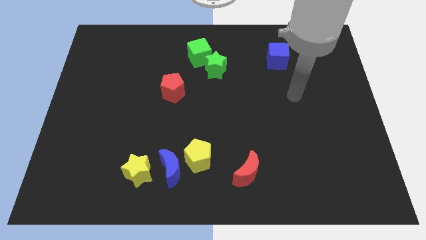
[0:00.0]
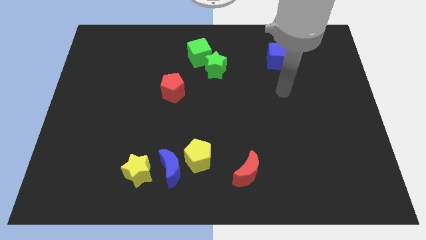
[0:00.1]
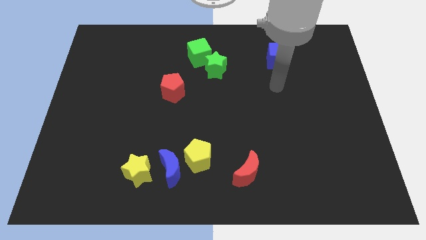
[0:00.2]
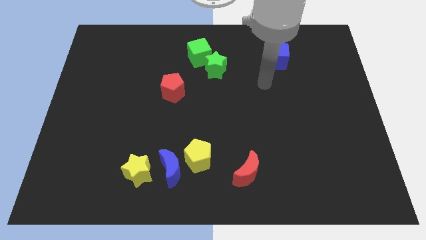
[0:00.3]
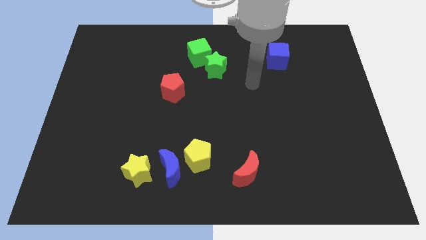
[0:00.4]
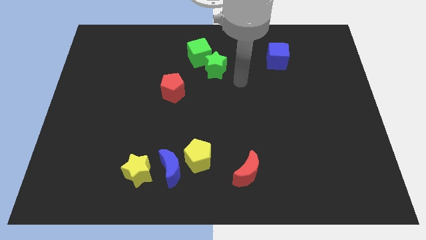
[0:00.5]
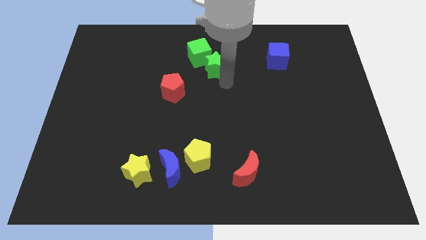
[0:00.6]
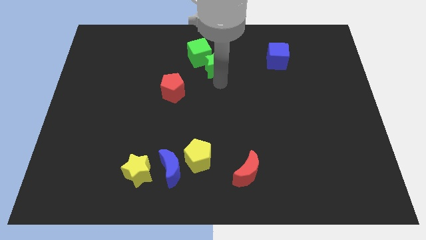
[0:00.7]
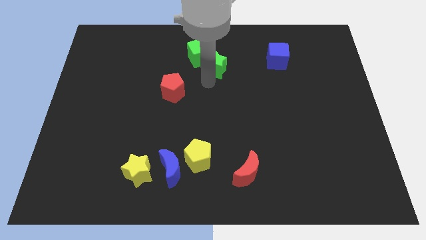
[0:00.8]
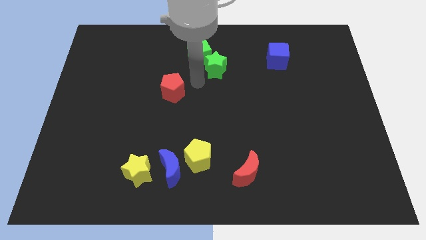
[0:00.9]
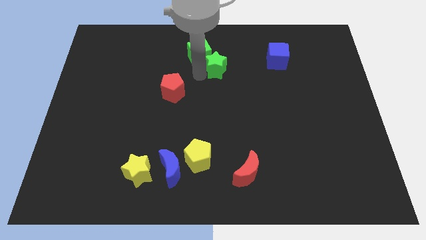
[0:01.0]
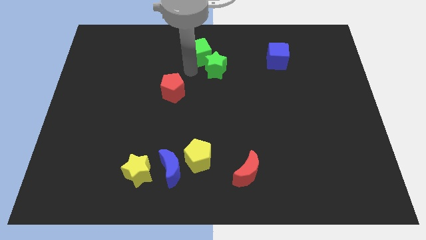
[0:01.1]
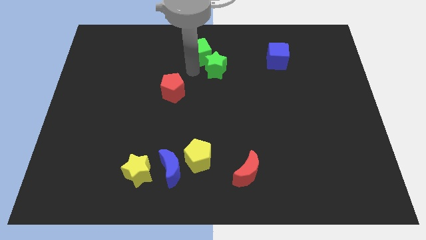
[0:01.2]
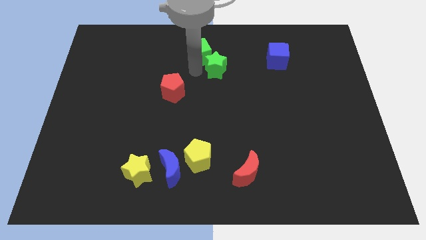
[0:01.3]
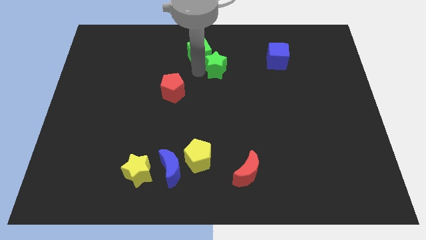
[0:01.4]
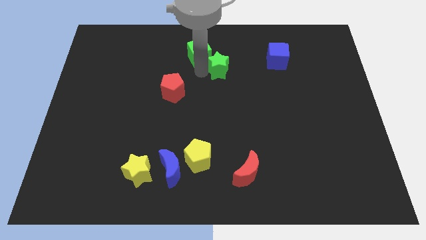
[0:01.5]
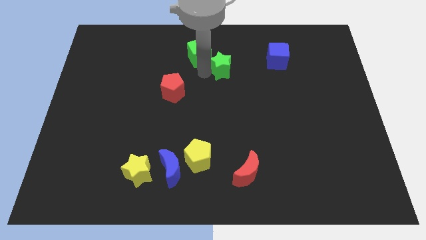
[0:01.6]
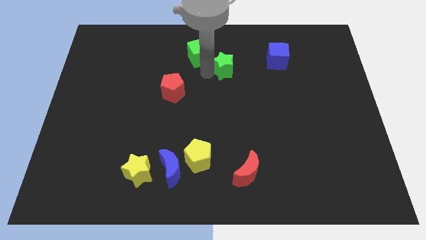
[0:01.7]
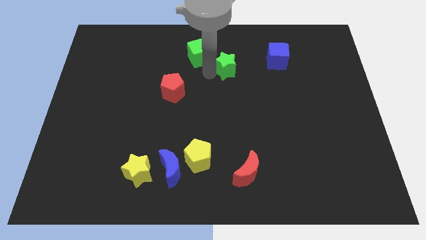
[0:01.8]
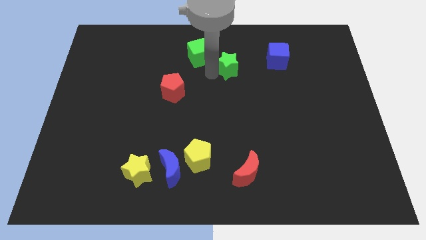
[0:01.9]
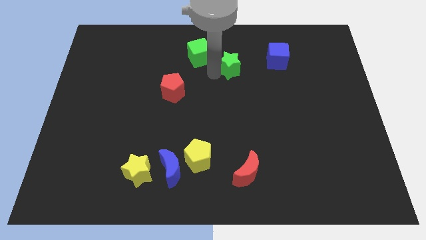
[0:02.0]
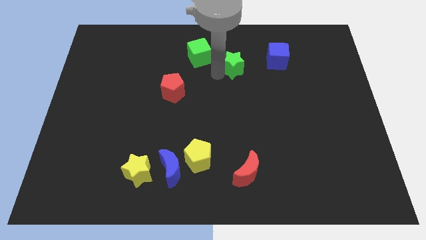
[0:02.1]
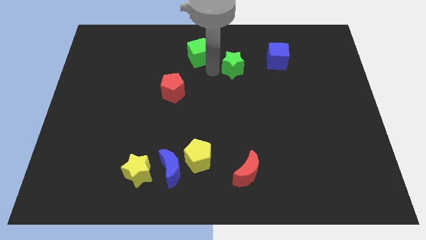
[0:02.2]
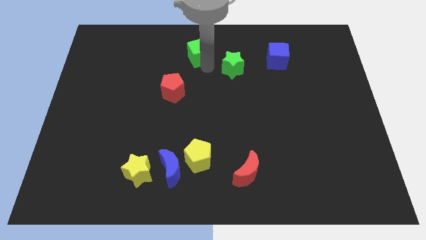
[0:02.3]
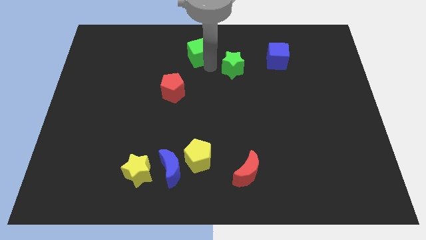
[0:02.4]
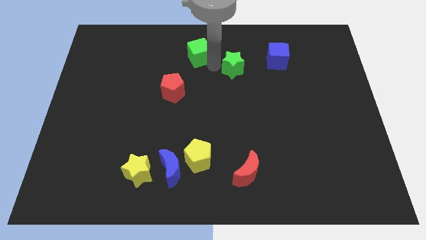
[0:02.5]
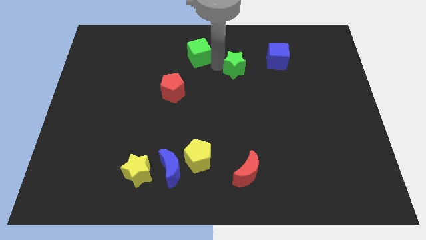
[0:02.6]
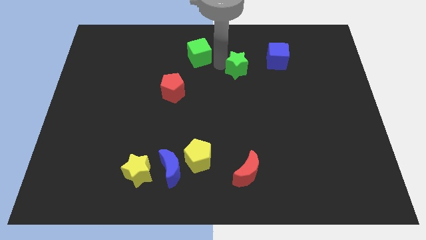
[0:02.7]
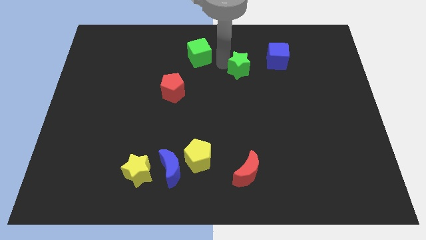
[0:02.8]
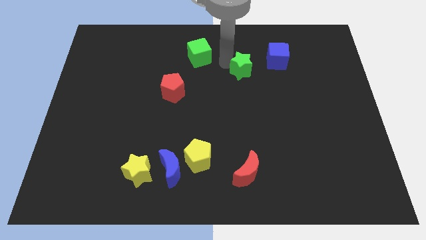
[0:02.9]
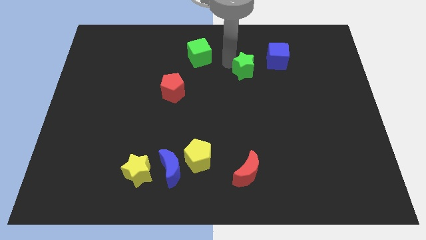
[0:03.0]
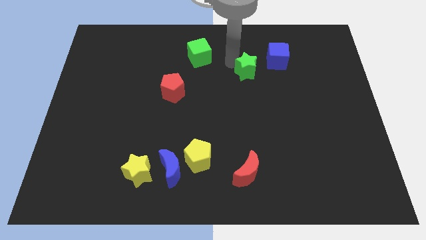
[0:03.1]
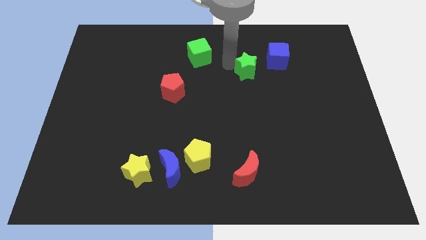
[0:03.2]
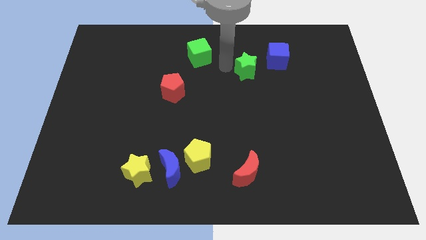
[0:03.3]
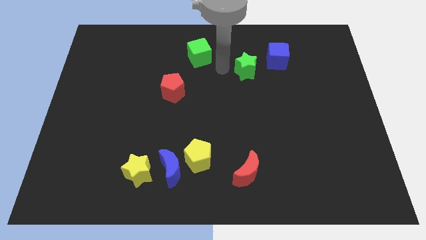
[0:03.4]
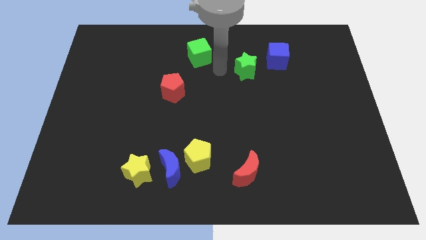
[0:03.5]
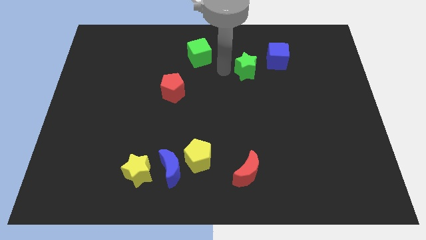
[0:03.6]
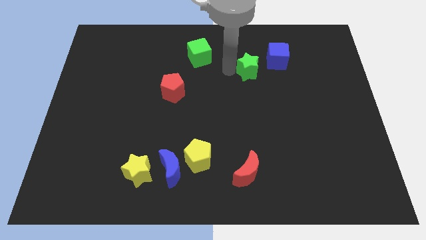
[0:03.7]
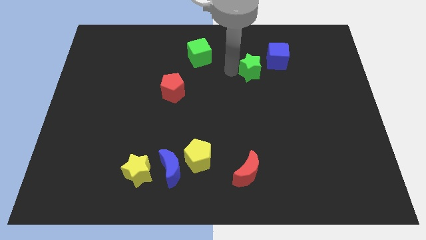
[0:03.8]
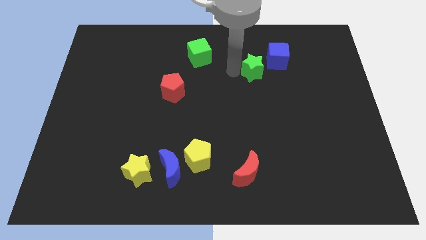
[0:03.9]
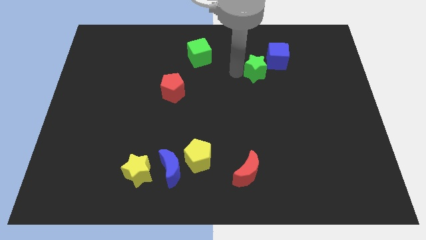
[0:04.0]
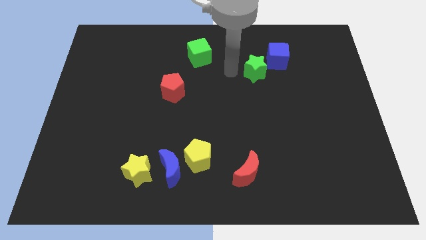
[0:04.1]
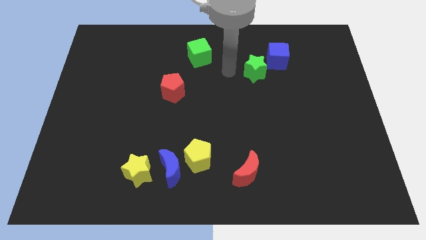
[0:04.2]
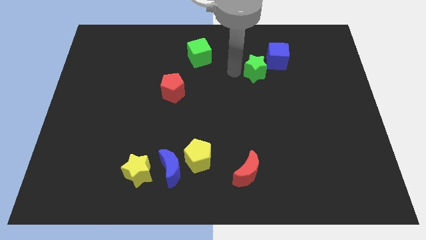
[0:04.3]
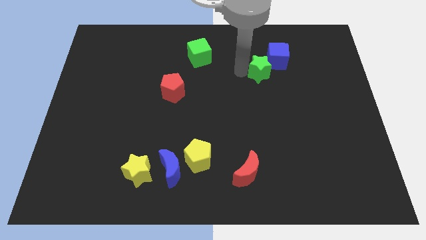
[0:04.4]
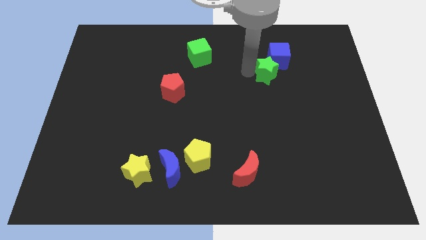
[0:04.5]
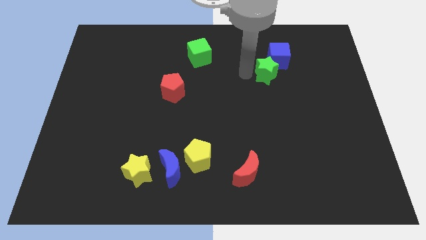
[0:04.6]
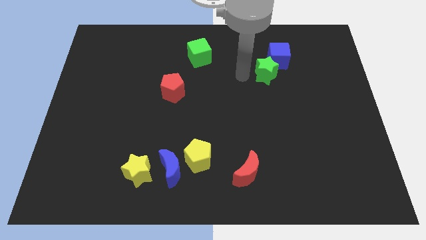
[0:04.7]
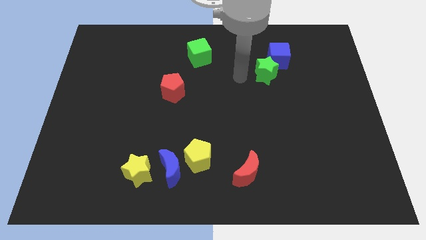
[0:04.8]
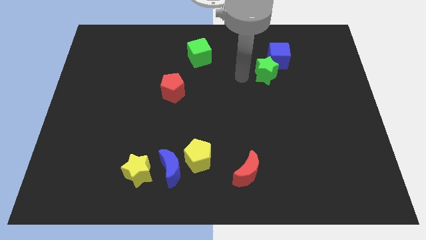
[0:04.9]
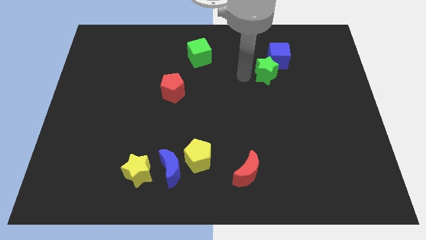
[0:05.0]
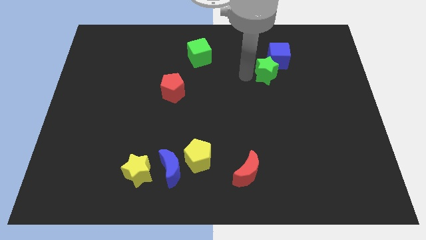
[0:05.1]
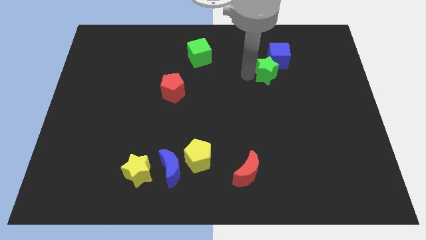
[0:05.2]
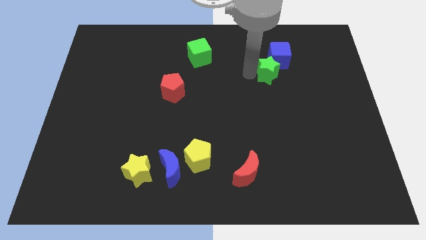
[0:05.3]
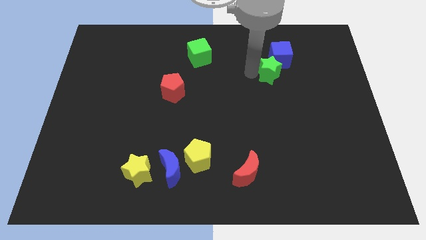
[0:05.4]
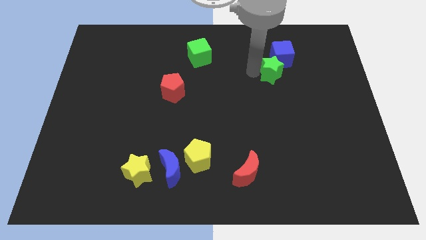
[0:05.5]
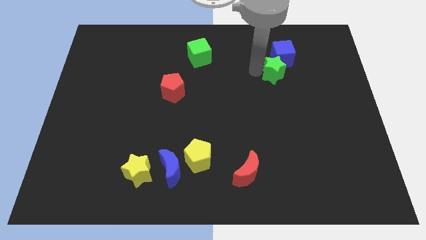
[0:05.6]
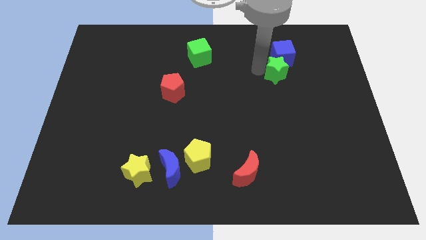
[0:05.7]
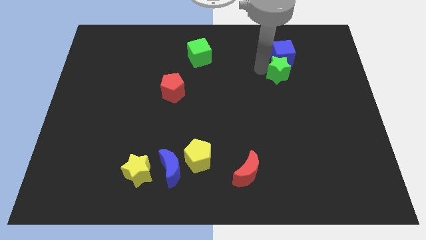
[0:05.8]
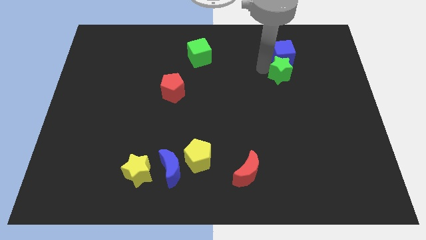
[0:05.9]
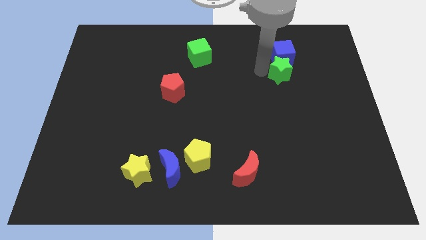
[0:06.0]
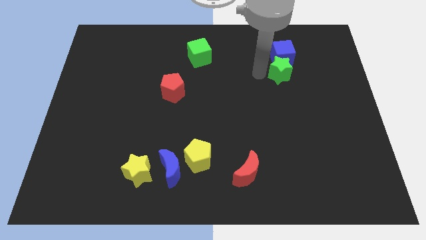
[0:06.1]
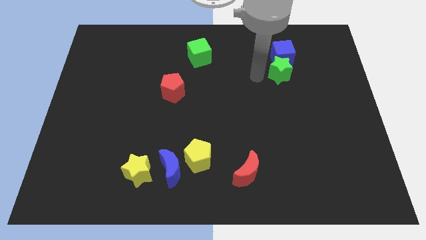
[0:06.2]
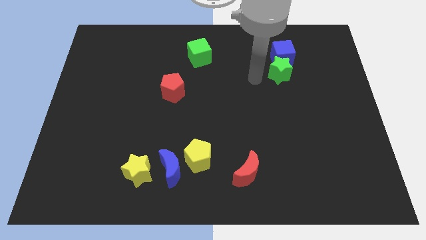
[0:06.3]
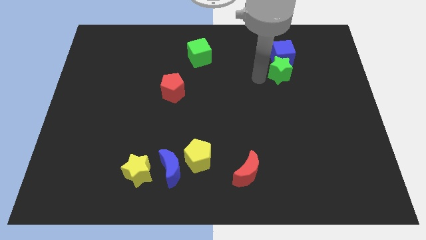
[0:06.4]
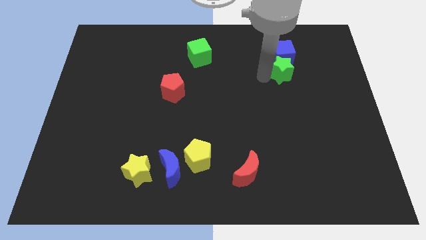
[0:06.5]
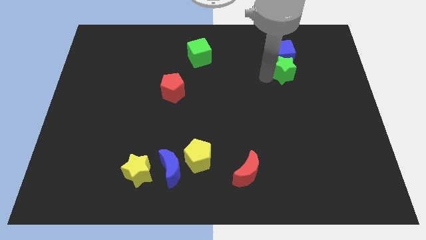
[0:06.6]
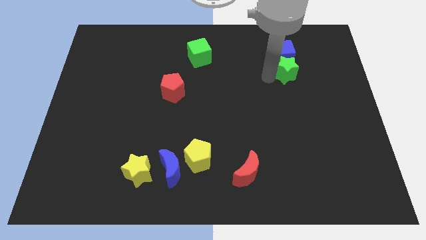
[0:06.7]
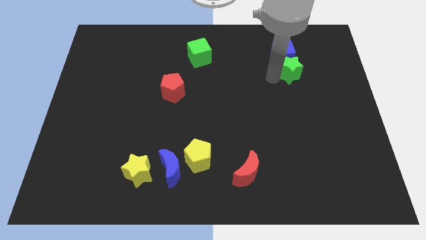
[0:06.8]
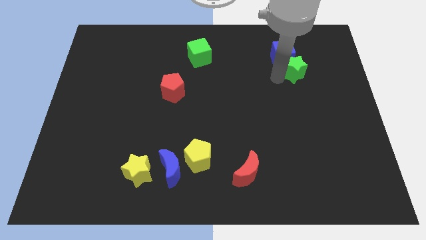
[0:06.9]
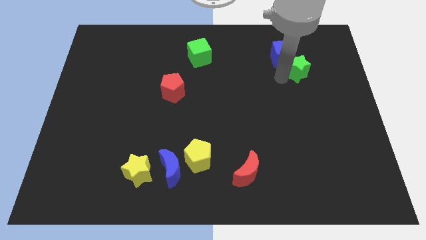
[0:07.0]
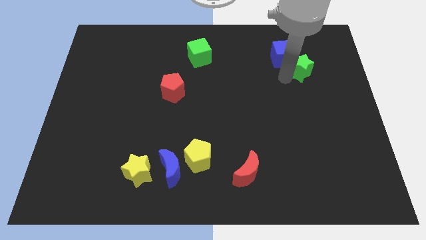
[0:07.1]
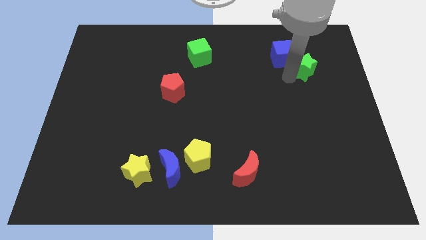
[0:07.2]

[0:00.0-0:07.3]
slide the green star to the right of the blue cube

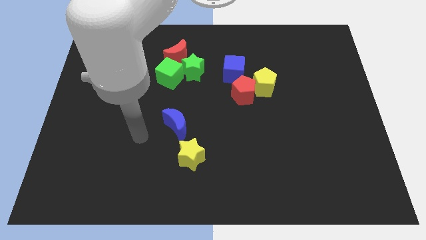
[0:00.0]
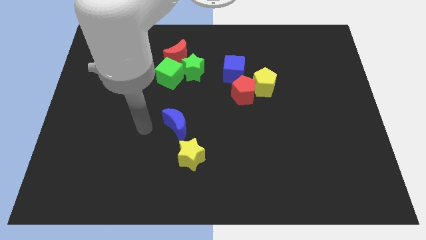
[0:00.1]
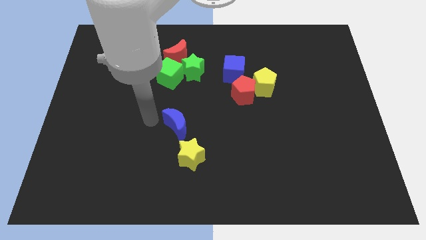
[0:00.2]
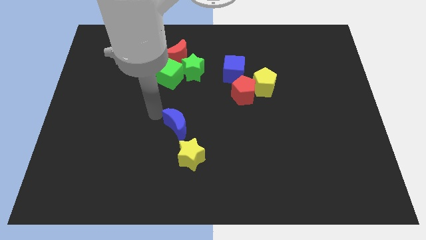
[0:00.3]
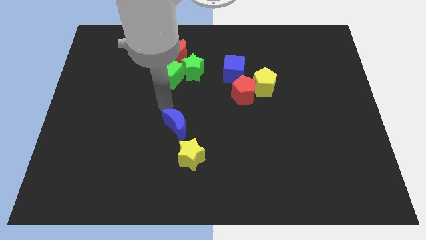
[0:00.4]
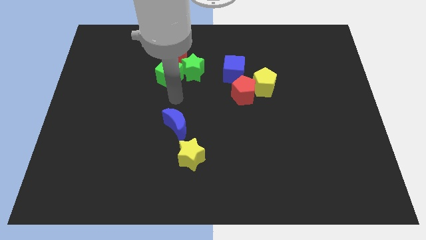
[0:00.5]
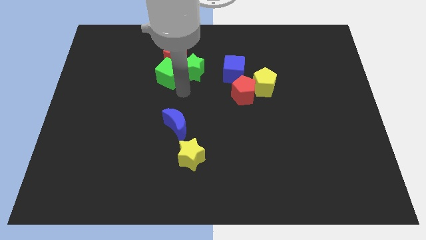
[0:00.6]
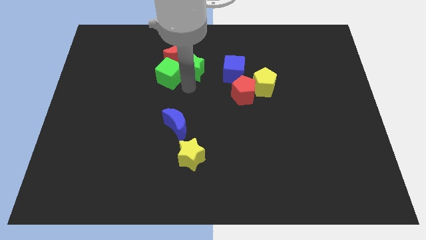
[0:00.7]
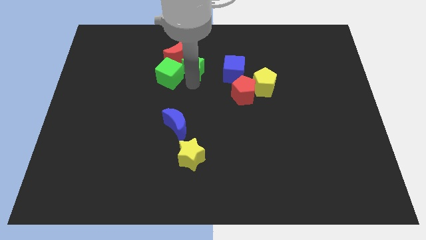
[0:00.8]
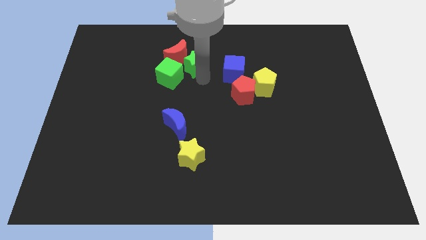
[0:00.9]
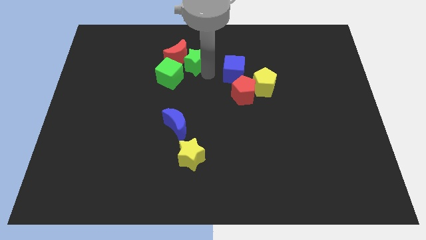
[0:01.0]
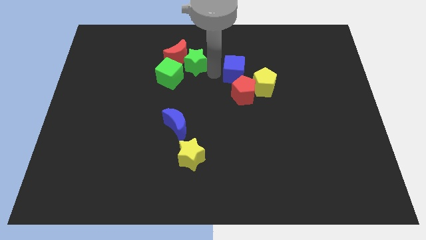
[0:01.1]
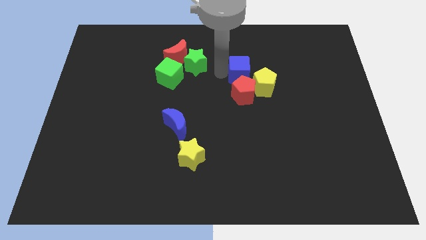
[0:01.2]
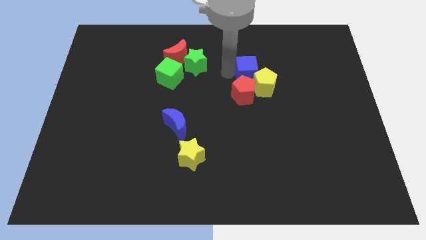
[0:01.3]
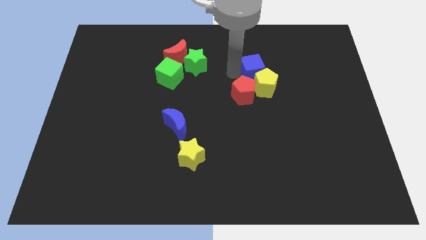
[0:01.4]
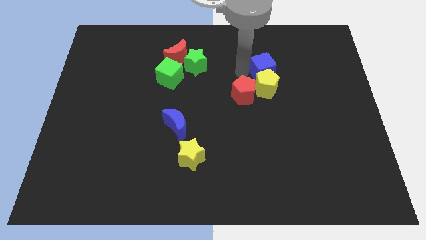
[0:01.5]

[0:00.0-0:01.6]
put the blue cube to the top right of the yellow pentagon
